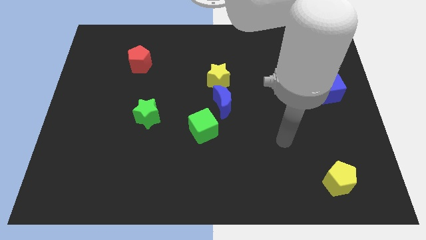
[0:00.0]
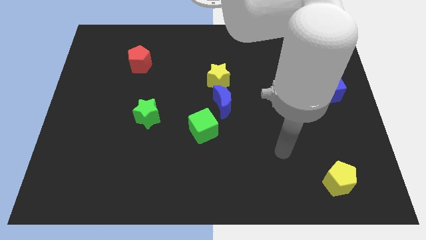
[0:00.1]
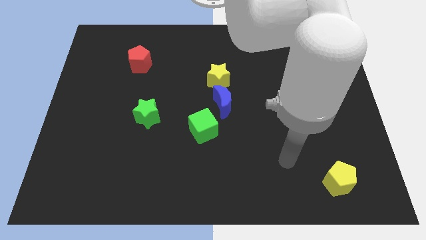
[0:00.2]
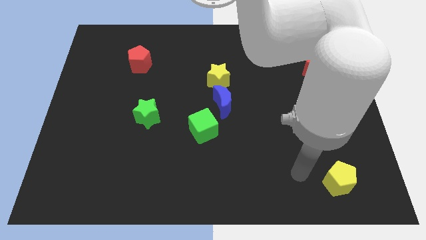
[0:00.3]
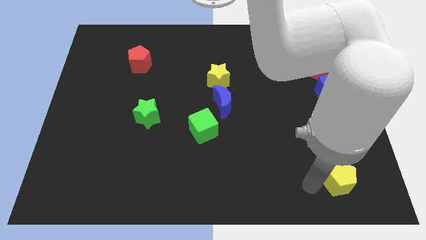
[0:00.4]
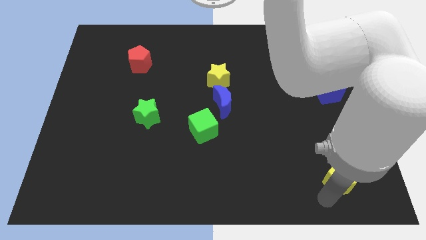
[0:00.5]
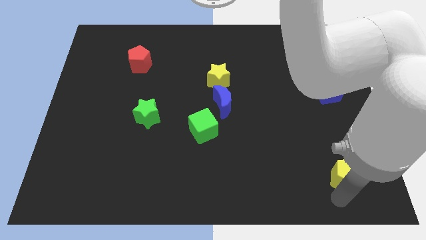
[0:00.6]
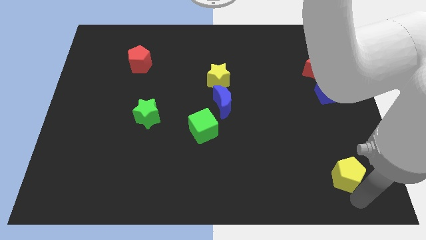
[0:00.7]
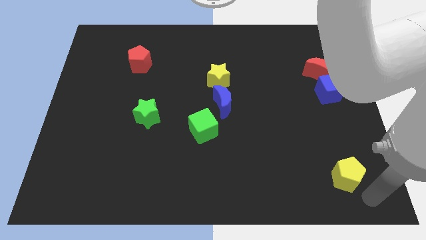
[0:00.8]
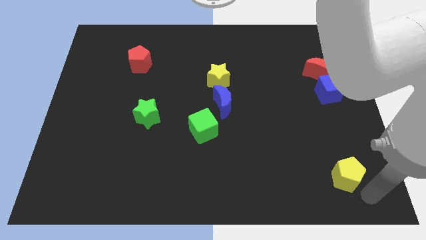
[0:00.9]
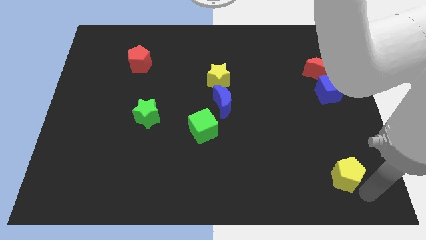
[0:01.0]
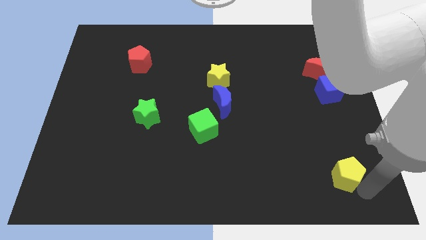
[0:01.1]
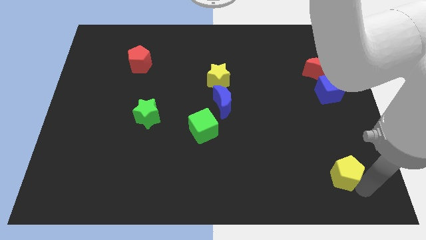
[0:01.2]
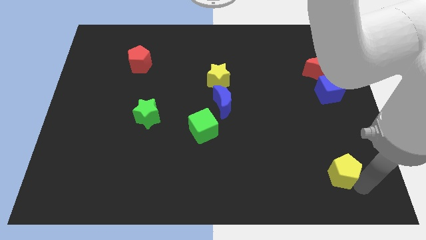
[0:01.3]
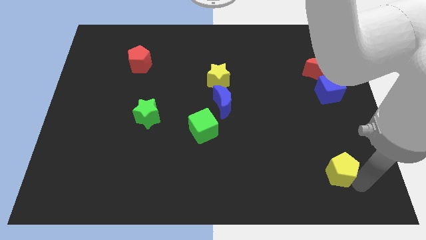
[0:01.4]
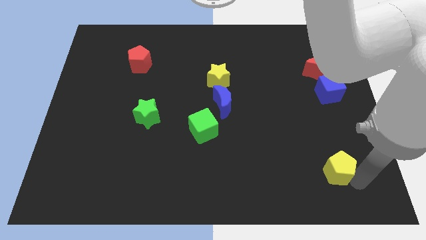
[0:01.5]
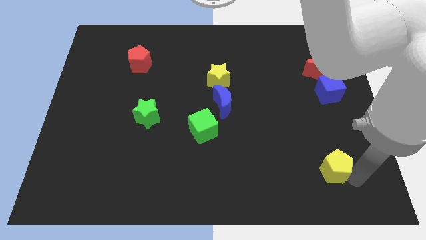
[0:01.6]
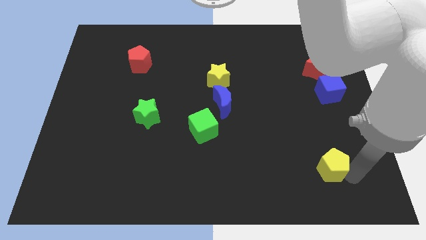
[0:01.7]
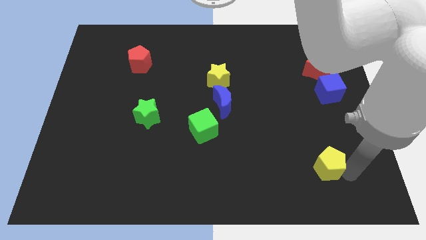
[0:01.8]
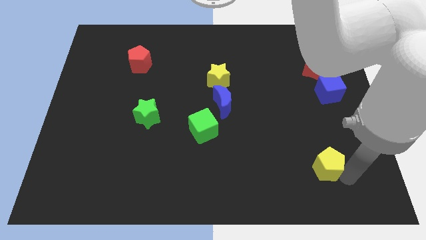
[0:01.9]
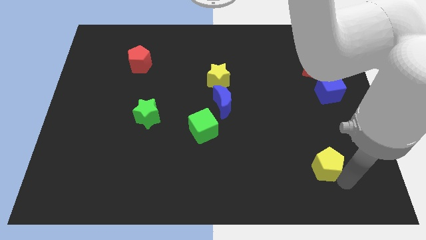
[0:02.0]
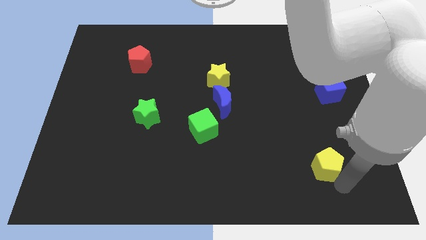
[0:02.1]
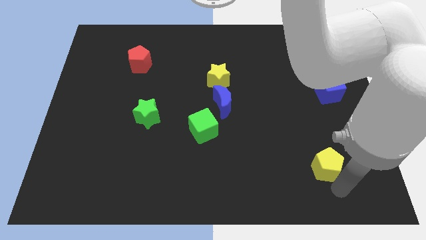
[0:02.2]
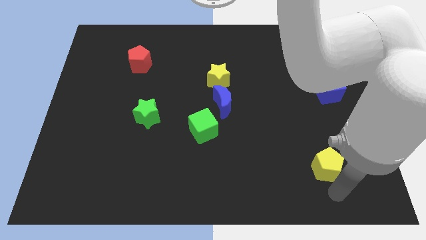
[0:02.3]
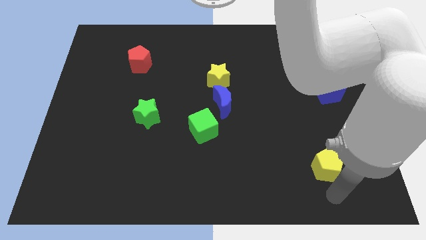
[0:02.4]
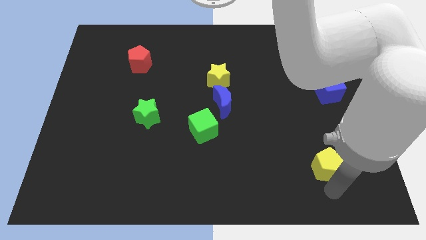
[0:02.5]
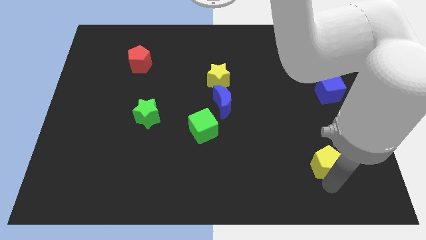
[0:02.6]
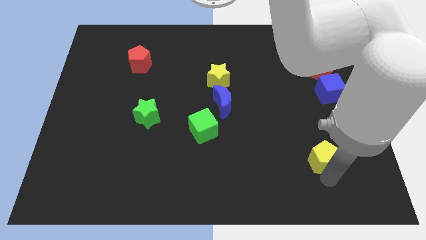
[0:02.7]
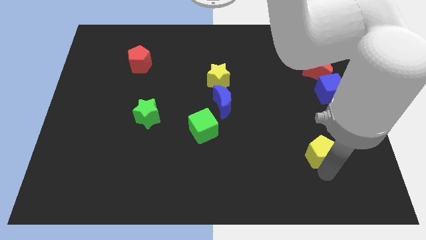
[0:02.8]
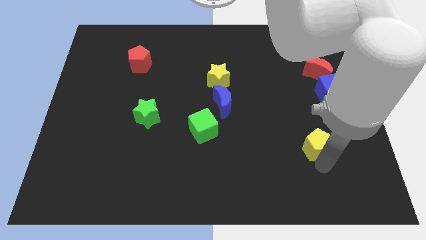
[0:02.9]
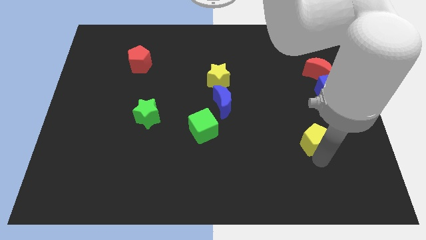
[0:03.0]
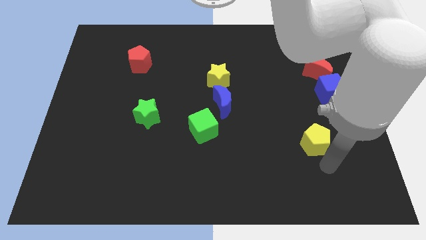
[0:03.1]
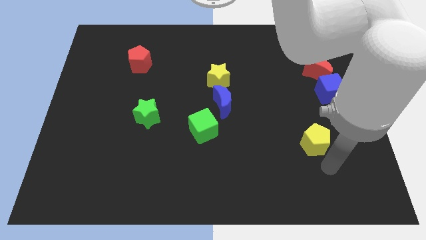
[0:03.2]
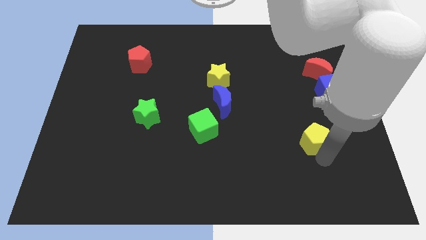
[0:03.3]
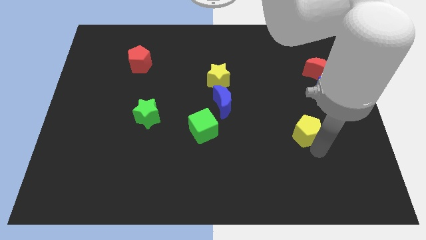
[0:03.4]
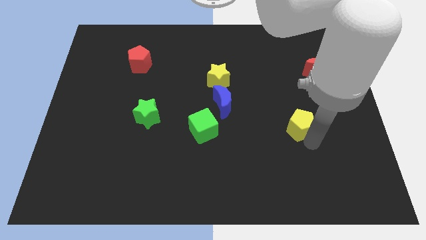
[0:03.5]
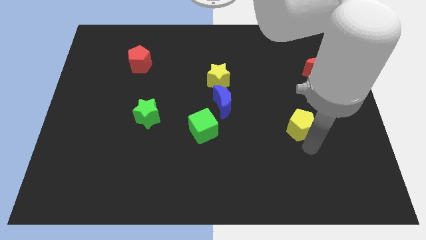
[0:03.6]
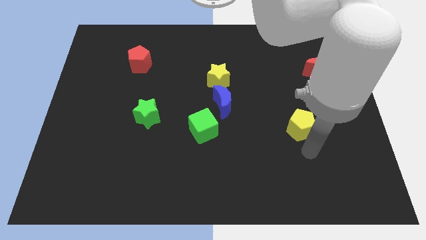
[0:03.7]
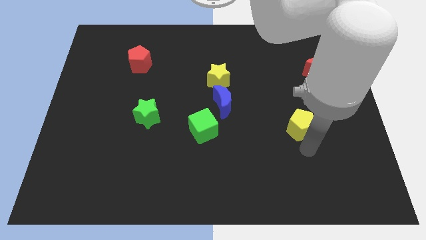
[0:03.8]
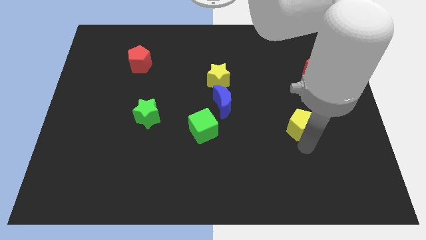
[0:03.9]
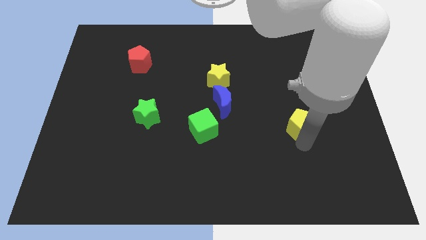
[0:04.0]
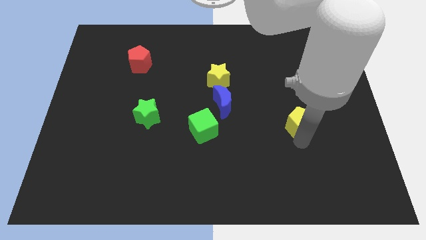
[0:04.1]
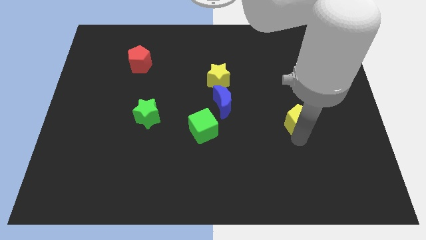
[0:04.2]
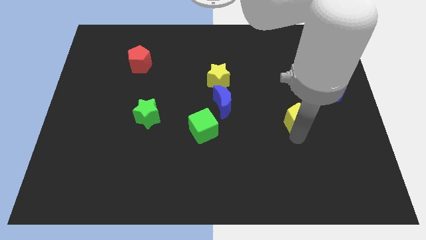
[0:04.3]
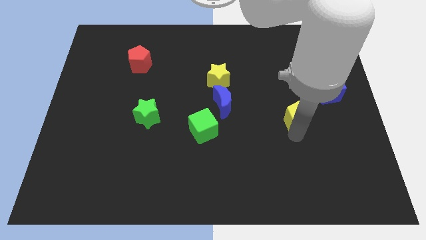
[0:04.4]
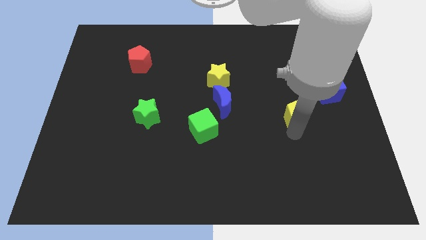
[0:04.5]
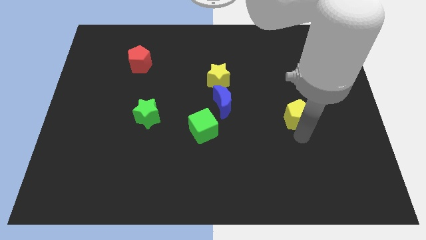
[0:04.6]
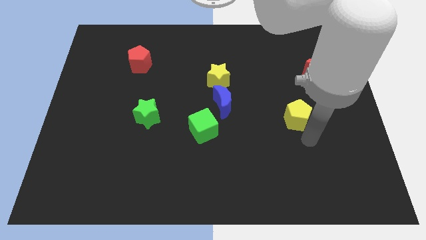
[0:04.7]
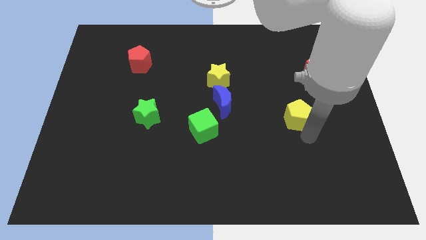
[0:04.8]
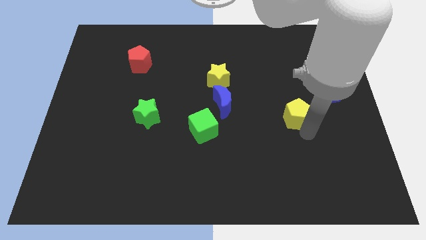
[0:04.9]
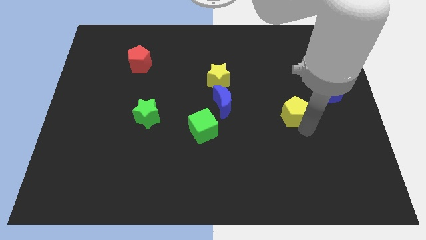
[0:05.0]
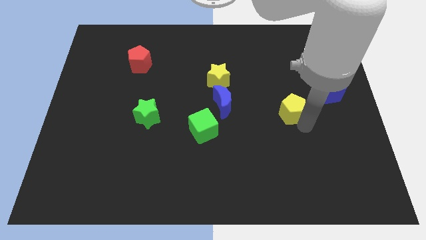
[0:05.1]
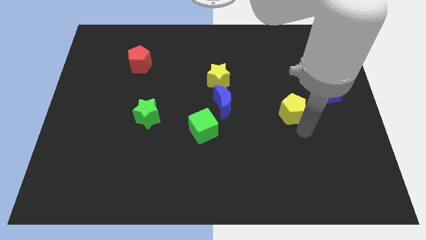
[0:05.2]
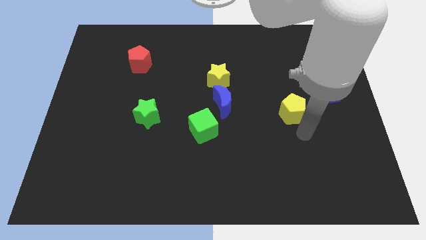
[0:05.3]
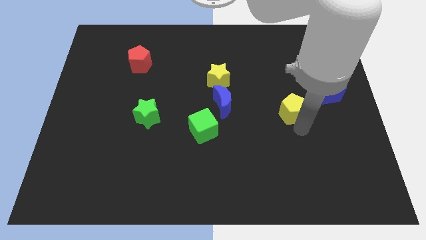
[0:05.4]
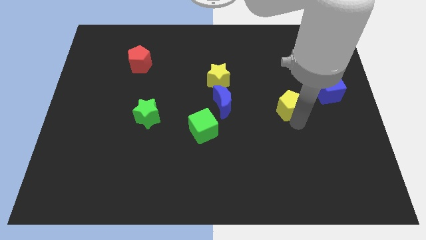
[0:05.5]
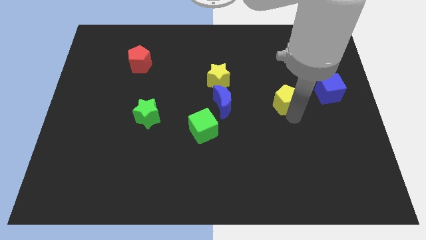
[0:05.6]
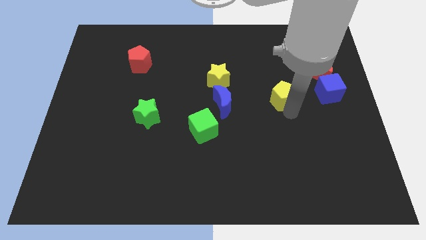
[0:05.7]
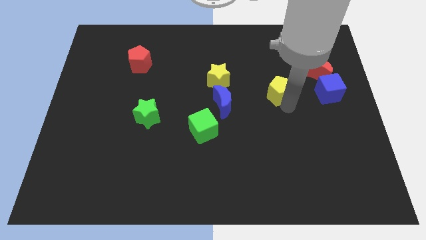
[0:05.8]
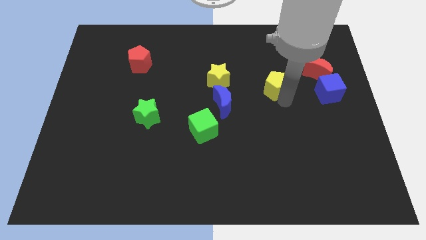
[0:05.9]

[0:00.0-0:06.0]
push the yellow pentagon to the right of the yellow star

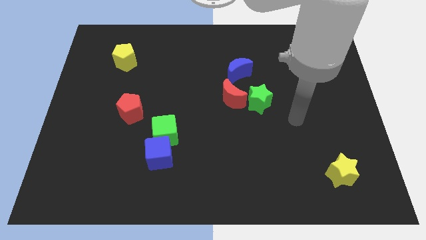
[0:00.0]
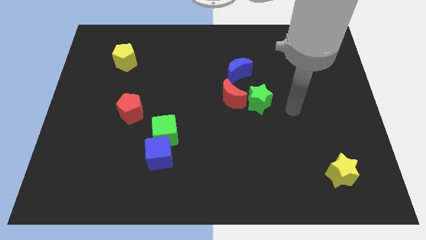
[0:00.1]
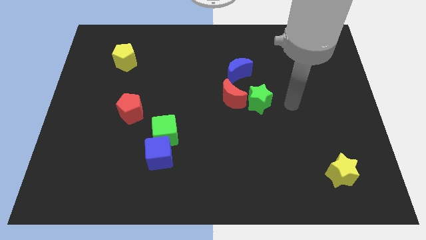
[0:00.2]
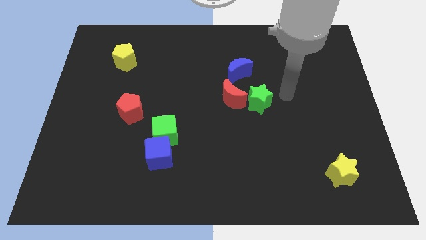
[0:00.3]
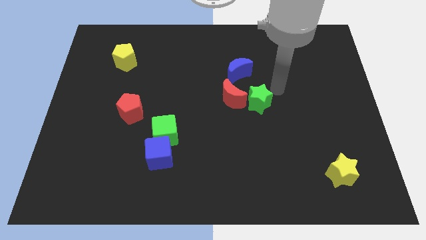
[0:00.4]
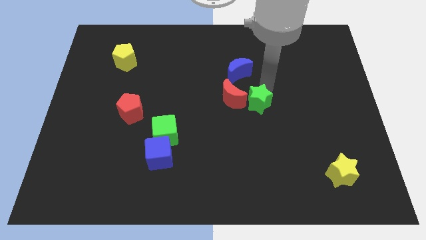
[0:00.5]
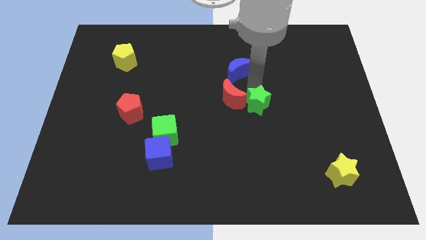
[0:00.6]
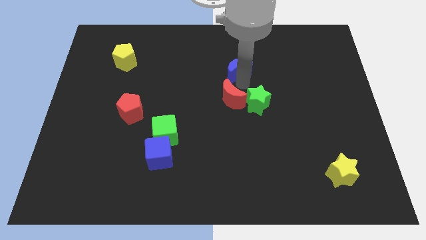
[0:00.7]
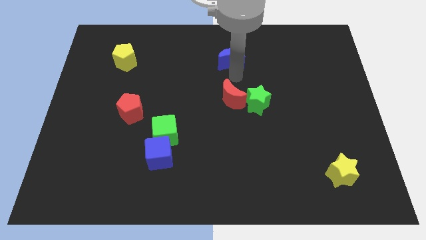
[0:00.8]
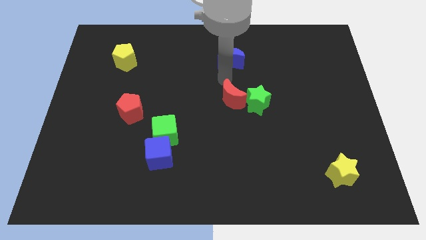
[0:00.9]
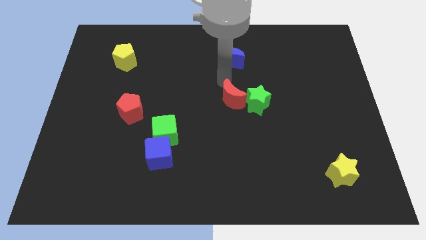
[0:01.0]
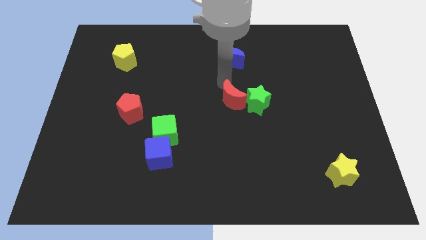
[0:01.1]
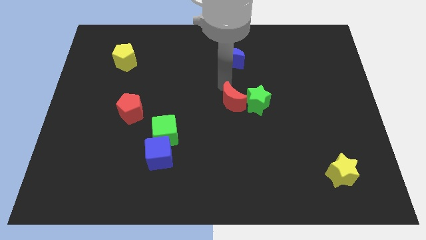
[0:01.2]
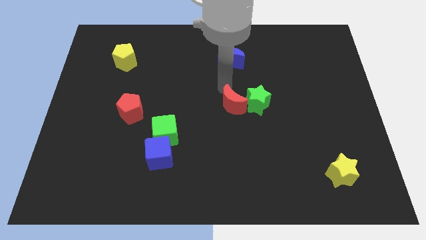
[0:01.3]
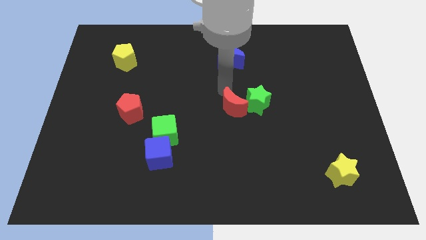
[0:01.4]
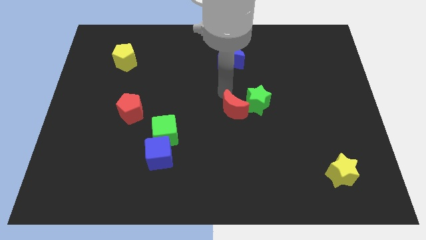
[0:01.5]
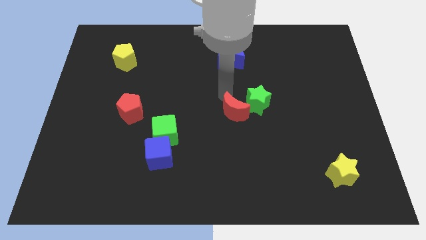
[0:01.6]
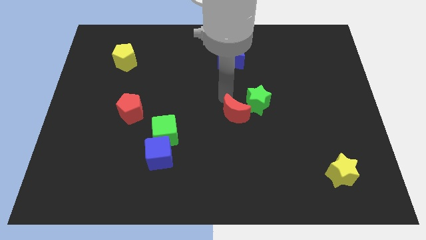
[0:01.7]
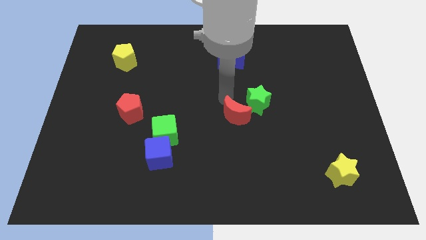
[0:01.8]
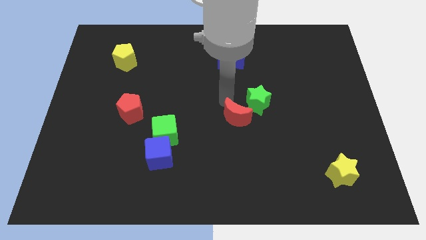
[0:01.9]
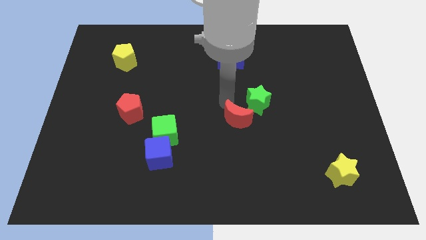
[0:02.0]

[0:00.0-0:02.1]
move the red moon below the green star
